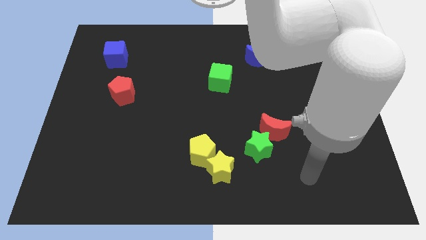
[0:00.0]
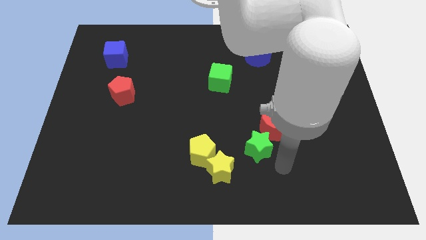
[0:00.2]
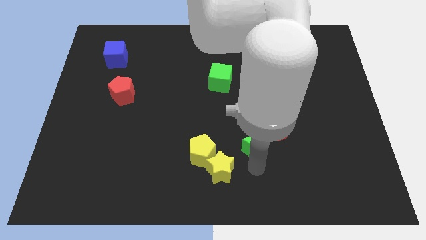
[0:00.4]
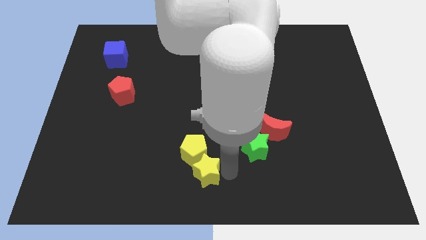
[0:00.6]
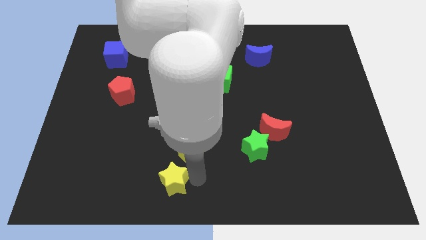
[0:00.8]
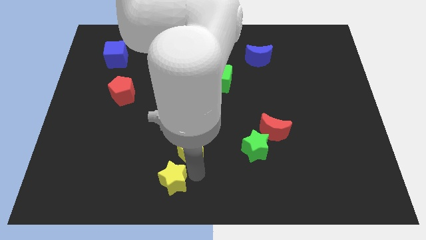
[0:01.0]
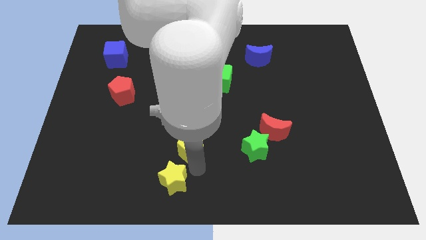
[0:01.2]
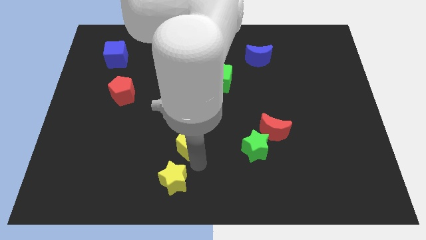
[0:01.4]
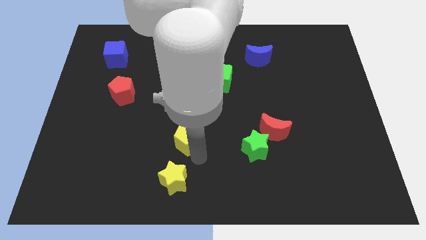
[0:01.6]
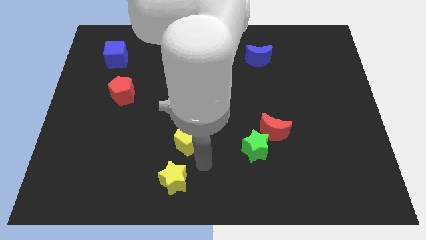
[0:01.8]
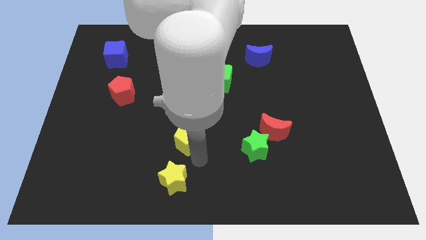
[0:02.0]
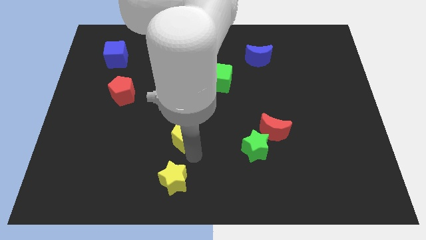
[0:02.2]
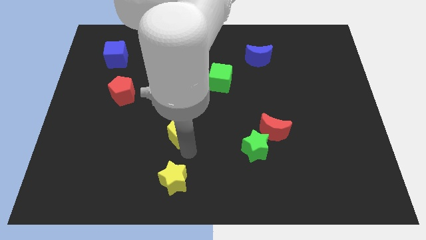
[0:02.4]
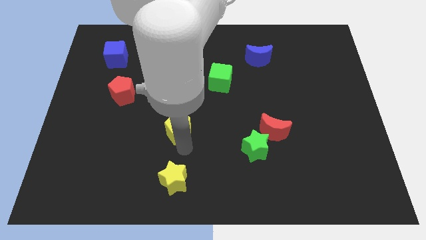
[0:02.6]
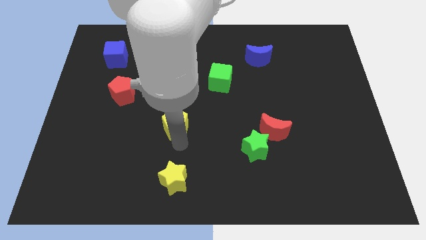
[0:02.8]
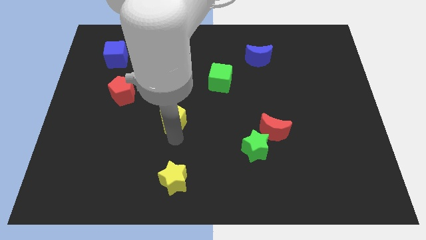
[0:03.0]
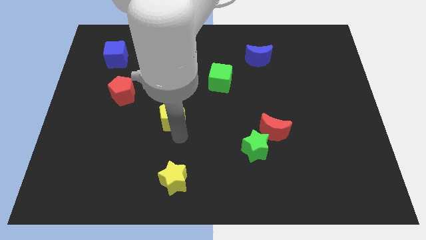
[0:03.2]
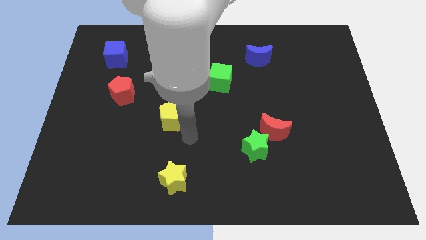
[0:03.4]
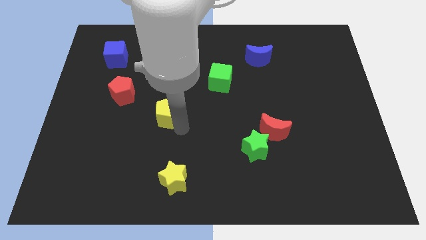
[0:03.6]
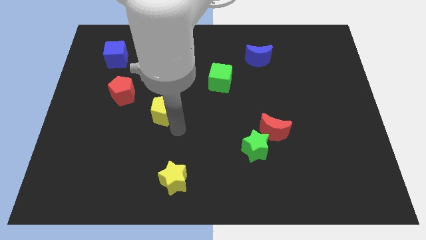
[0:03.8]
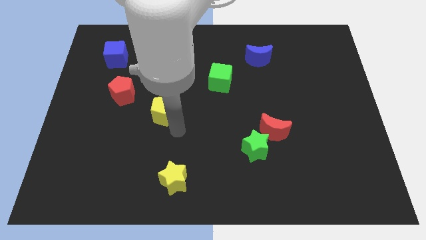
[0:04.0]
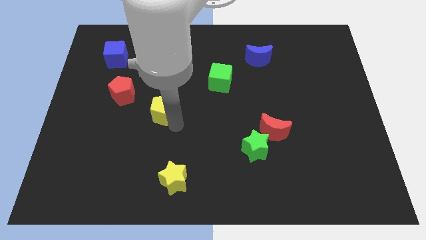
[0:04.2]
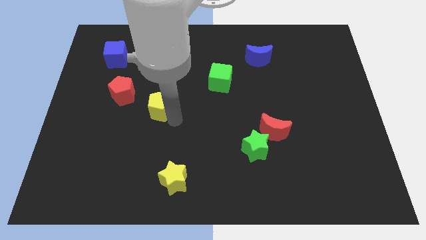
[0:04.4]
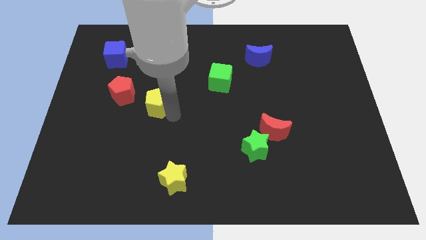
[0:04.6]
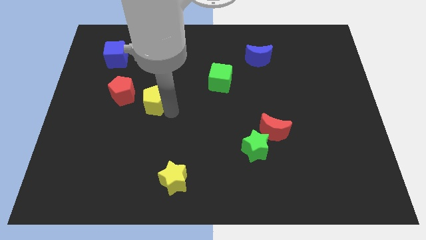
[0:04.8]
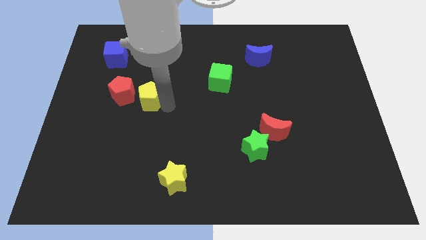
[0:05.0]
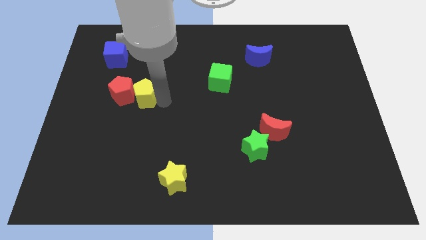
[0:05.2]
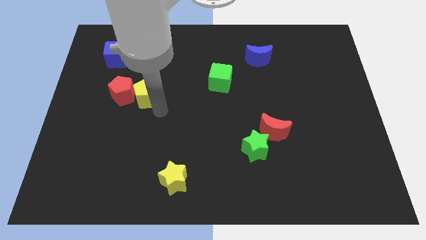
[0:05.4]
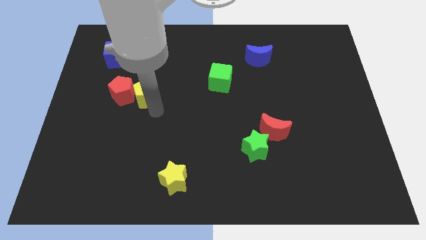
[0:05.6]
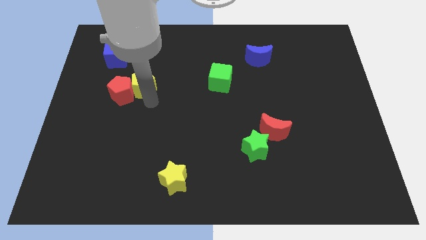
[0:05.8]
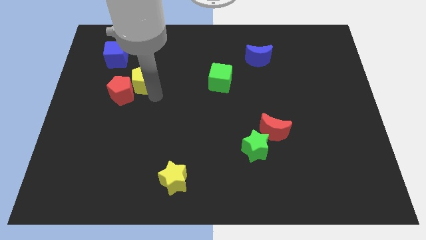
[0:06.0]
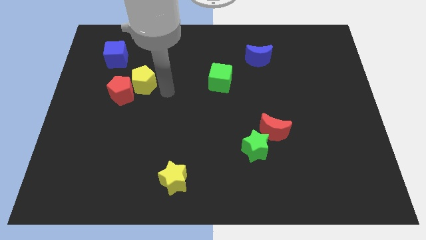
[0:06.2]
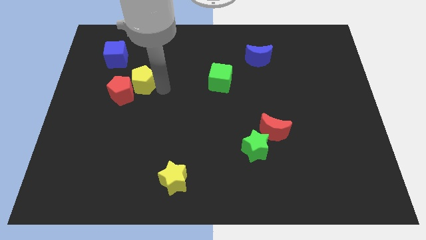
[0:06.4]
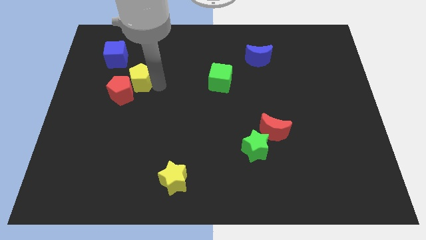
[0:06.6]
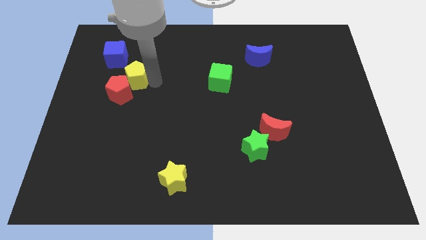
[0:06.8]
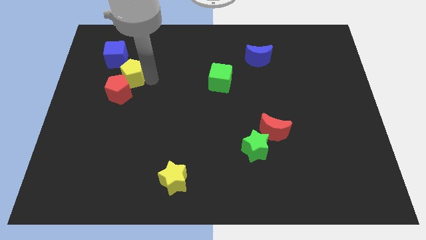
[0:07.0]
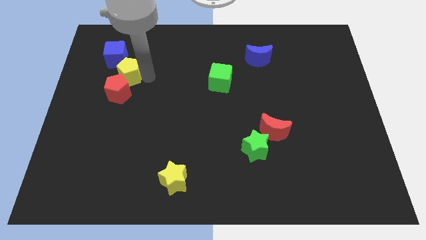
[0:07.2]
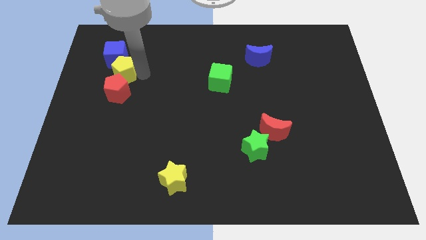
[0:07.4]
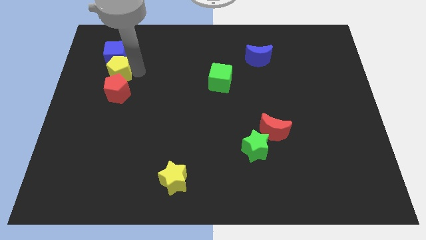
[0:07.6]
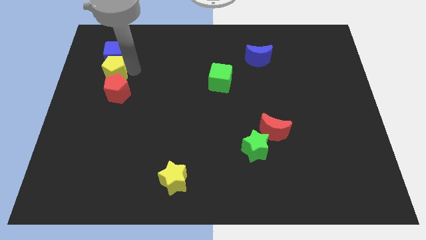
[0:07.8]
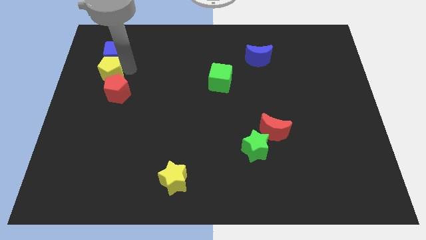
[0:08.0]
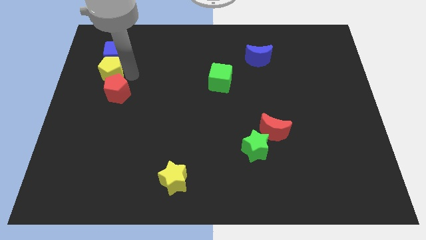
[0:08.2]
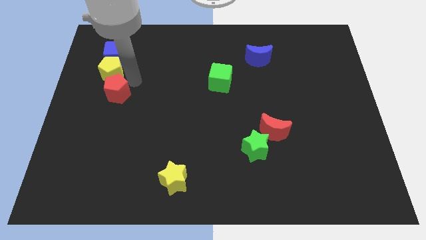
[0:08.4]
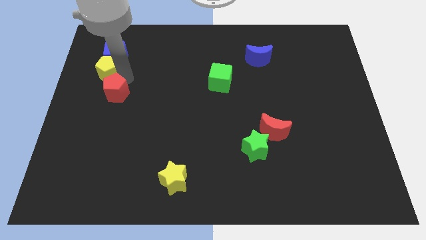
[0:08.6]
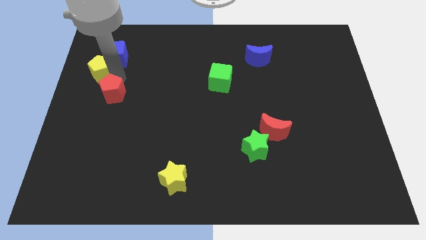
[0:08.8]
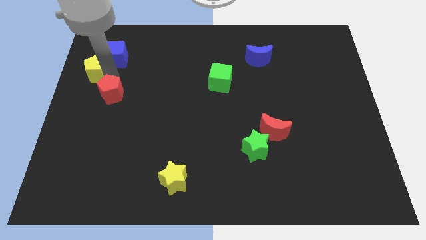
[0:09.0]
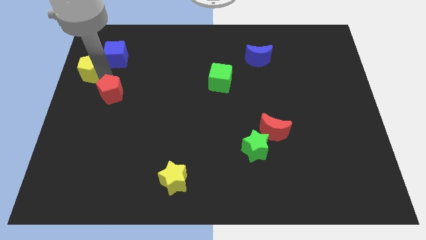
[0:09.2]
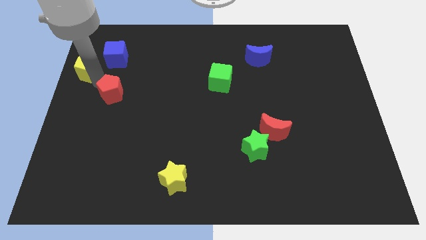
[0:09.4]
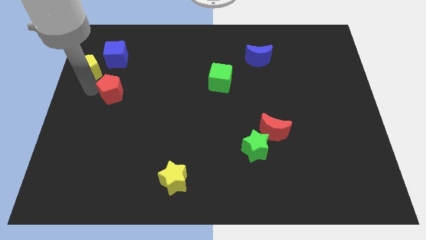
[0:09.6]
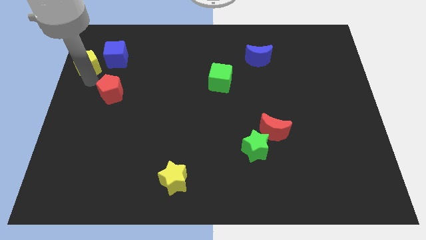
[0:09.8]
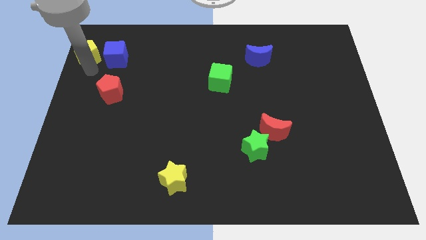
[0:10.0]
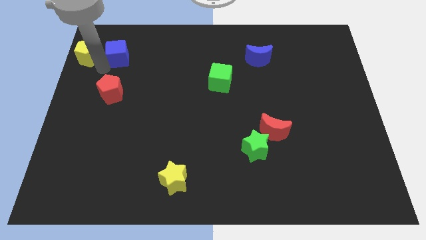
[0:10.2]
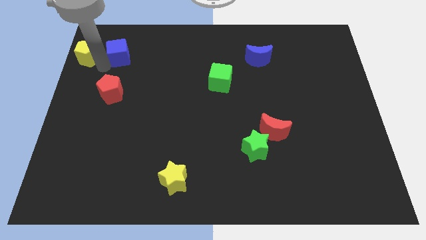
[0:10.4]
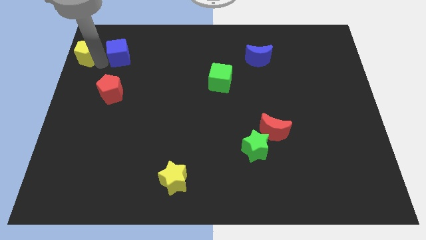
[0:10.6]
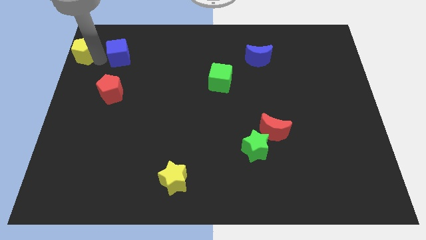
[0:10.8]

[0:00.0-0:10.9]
slide the yellow pentagon to the upper left corner
